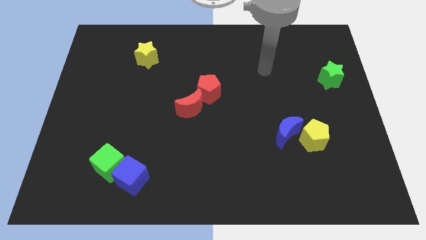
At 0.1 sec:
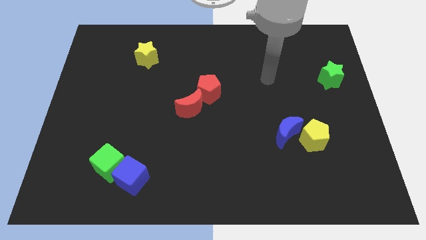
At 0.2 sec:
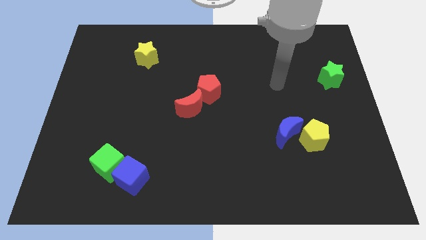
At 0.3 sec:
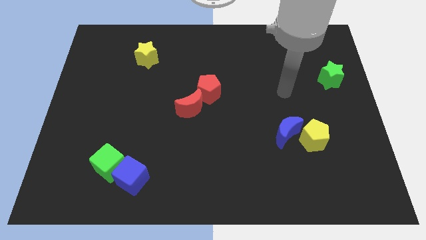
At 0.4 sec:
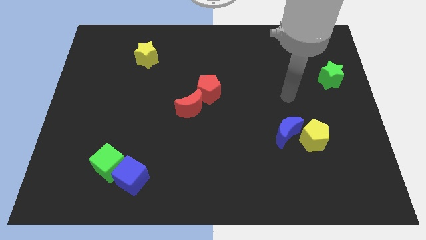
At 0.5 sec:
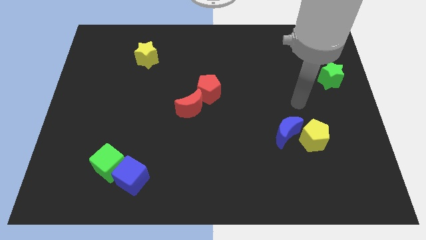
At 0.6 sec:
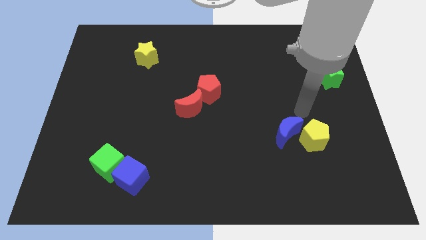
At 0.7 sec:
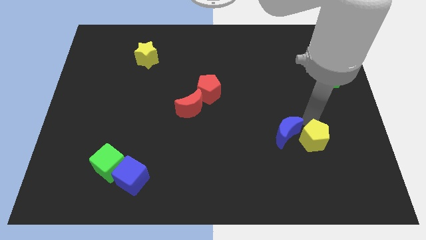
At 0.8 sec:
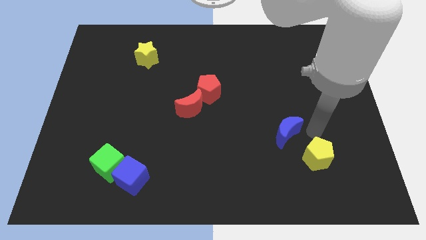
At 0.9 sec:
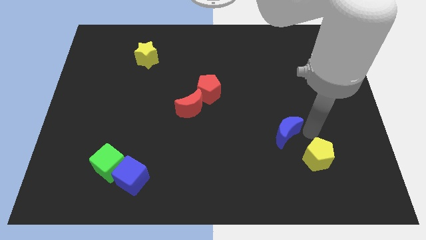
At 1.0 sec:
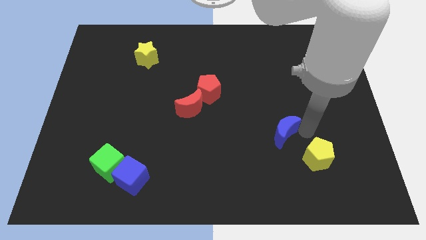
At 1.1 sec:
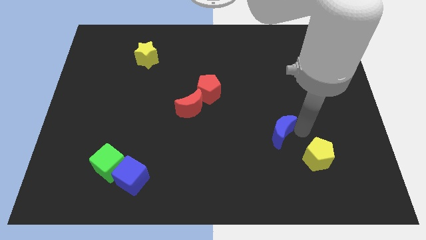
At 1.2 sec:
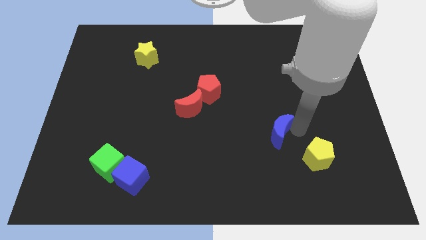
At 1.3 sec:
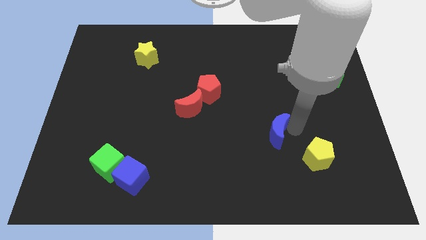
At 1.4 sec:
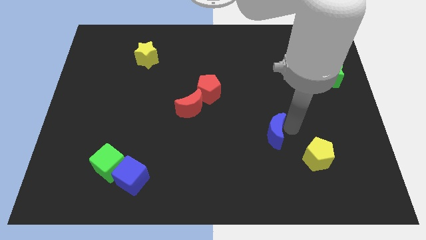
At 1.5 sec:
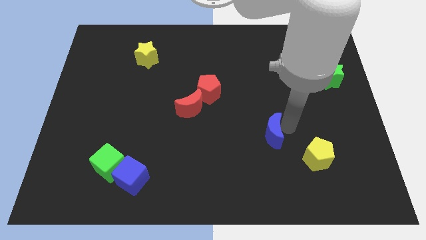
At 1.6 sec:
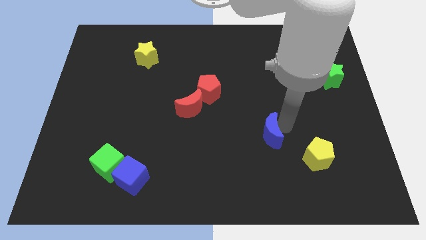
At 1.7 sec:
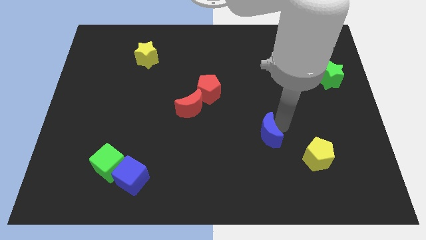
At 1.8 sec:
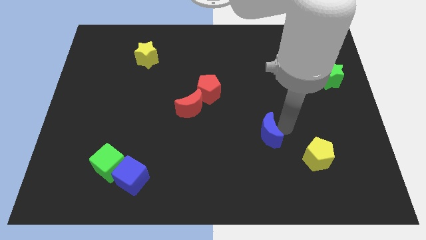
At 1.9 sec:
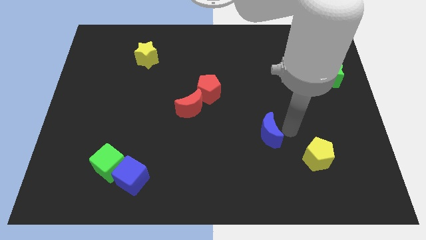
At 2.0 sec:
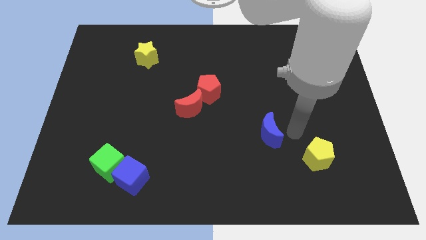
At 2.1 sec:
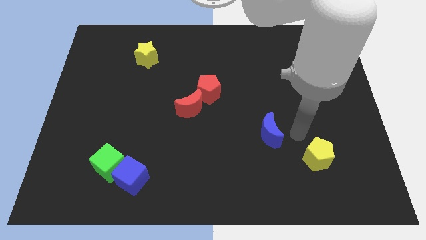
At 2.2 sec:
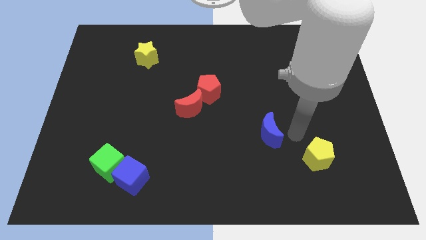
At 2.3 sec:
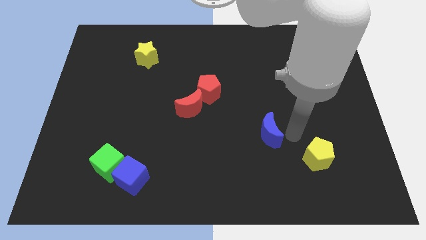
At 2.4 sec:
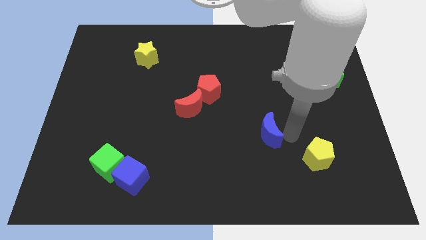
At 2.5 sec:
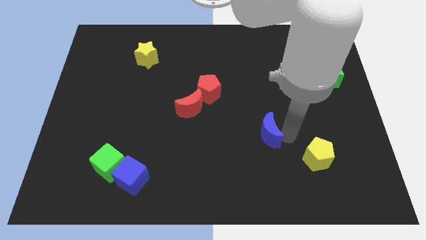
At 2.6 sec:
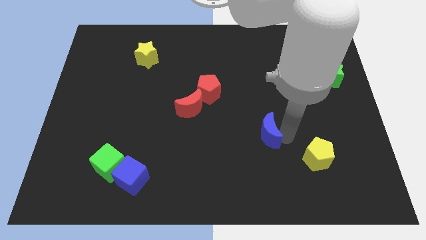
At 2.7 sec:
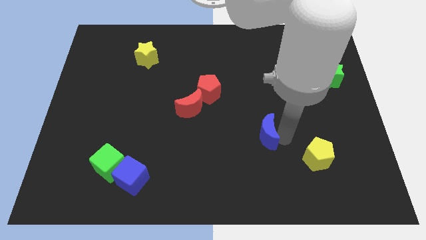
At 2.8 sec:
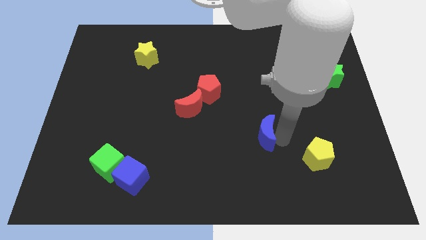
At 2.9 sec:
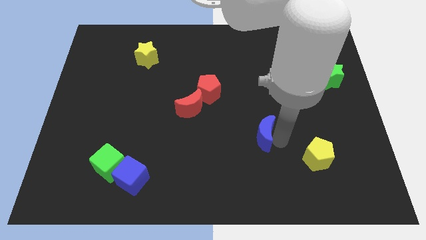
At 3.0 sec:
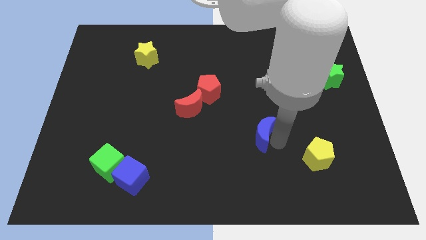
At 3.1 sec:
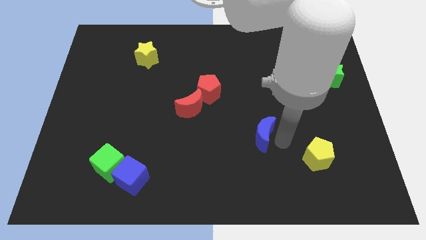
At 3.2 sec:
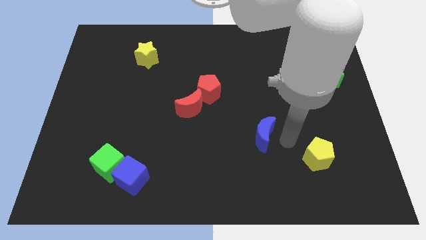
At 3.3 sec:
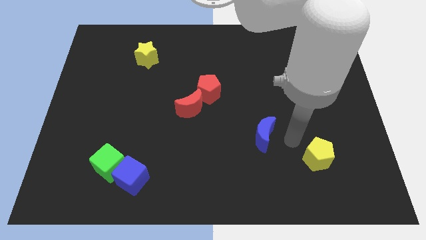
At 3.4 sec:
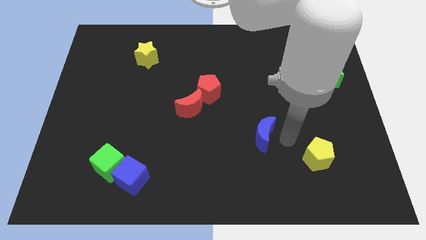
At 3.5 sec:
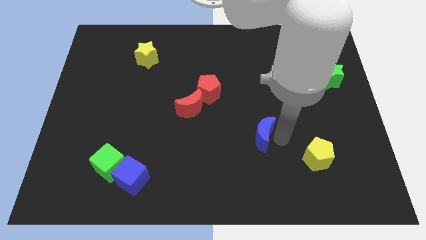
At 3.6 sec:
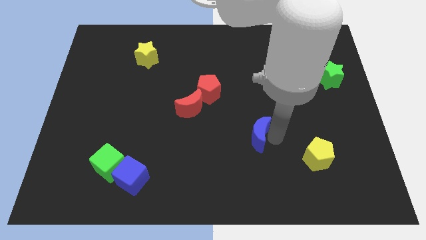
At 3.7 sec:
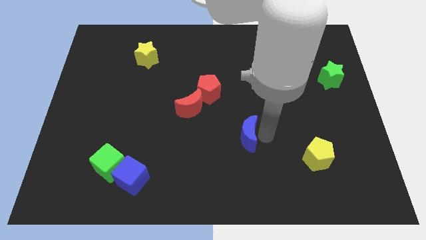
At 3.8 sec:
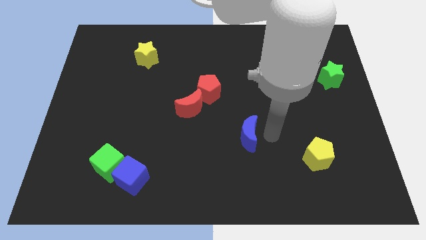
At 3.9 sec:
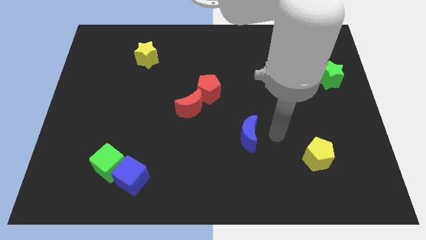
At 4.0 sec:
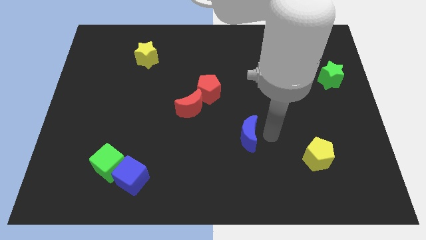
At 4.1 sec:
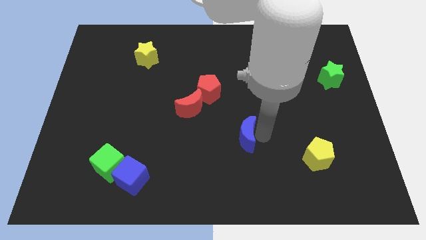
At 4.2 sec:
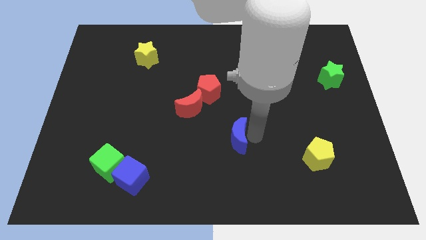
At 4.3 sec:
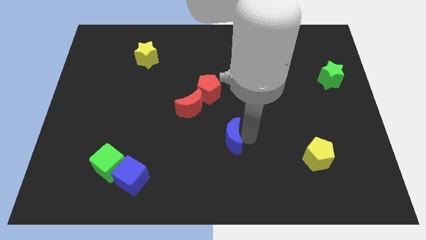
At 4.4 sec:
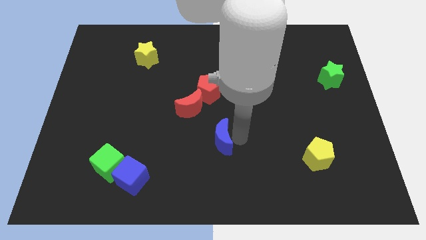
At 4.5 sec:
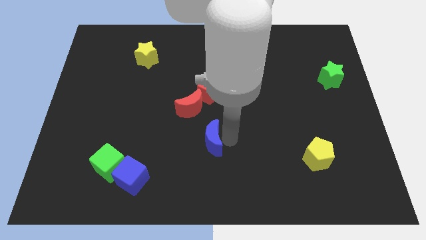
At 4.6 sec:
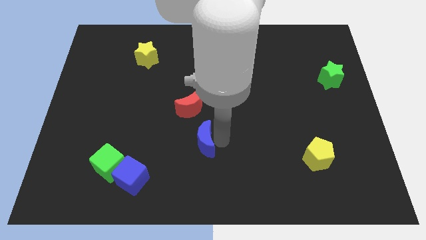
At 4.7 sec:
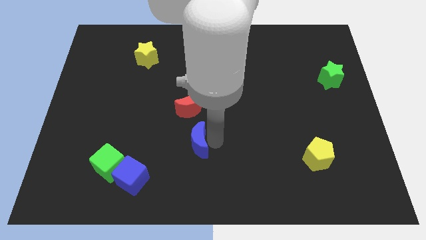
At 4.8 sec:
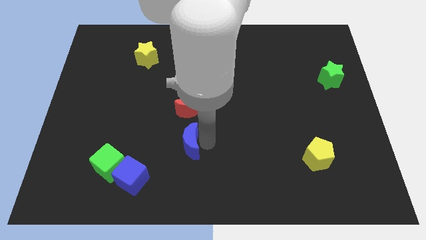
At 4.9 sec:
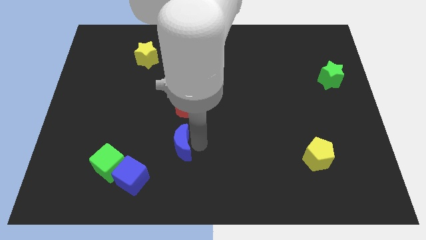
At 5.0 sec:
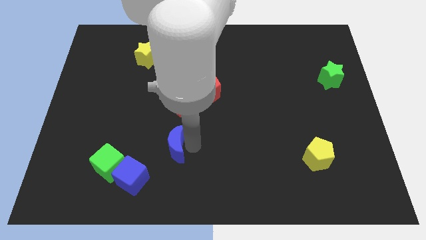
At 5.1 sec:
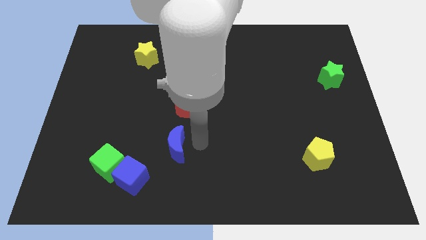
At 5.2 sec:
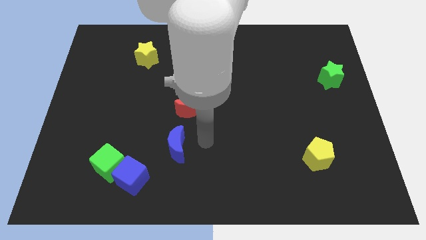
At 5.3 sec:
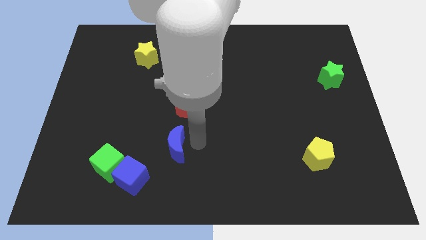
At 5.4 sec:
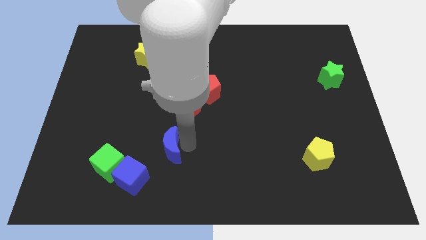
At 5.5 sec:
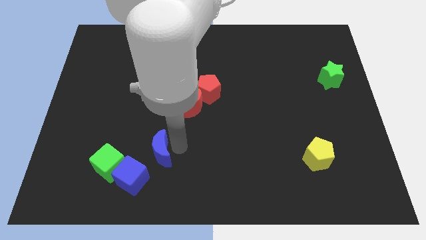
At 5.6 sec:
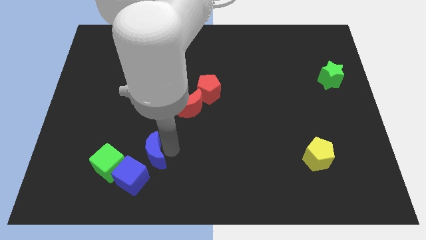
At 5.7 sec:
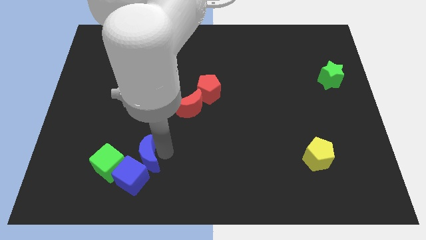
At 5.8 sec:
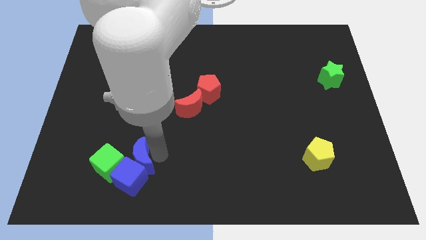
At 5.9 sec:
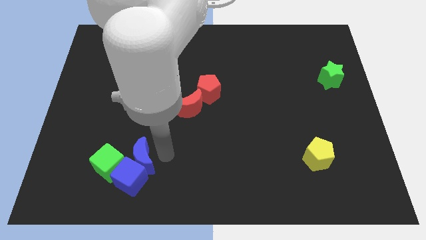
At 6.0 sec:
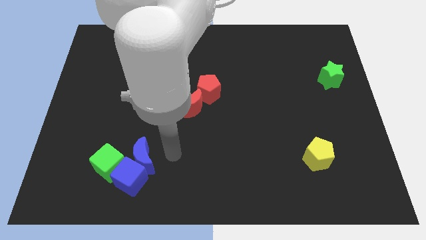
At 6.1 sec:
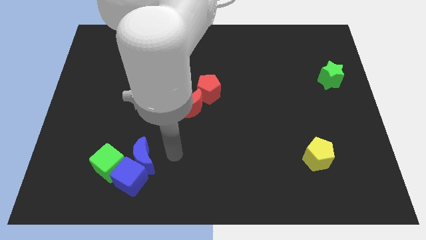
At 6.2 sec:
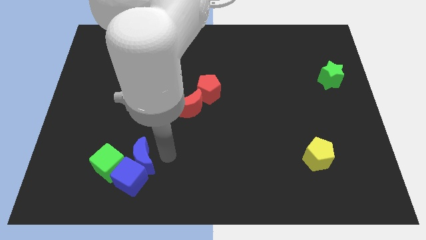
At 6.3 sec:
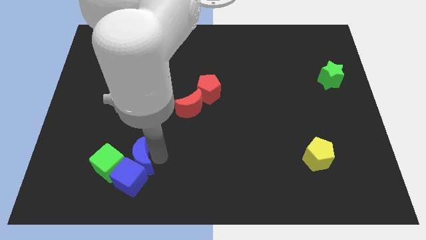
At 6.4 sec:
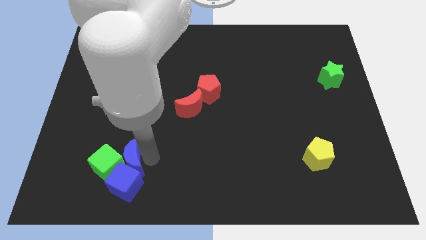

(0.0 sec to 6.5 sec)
push the blue moon to the green cube
